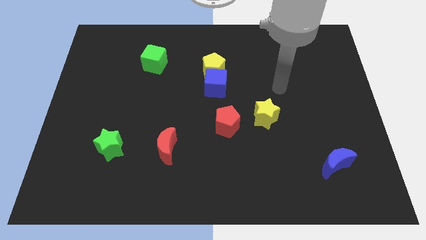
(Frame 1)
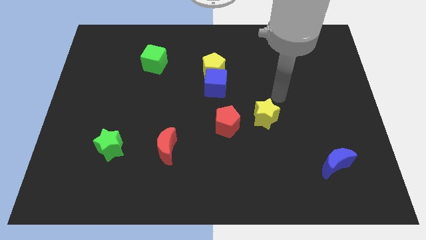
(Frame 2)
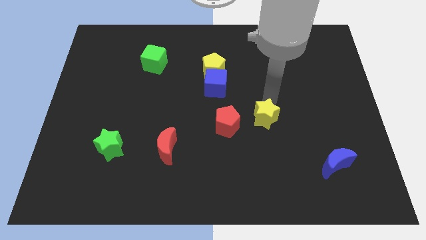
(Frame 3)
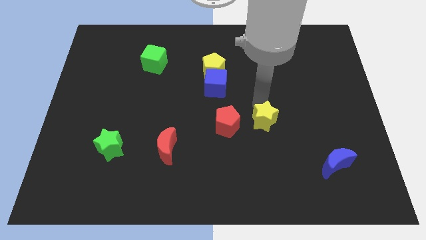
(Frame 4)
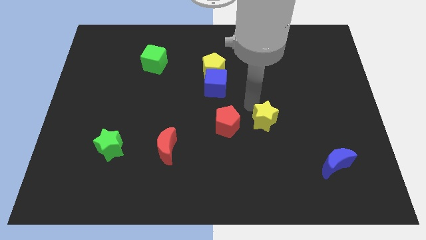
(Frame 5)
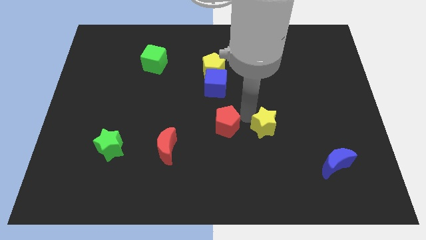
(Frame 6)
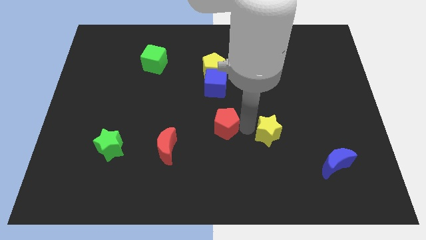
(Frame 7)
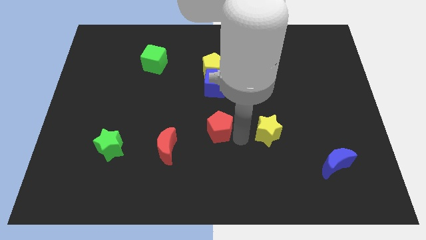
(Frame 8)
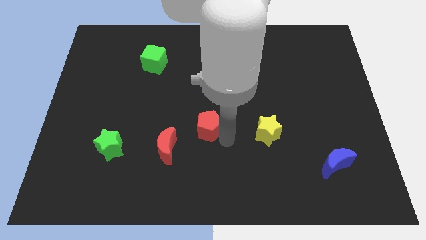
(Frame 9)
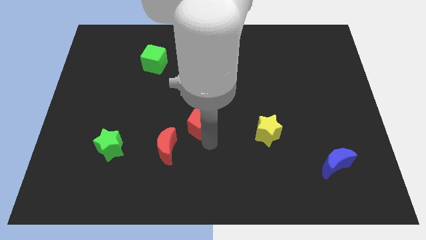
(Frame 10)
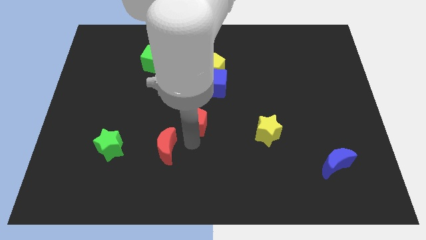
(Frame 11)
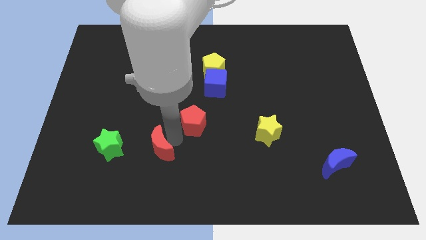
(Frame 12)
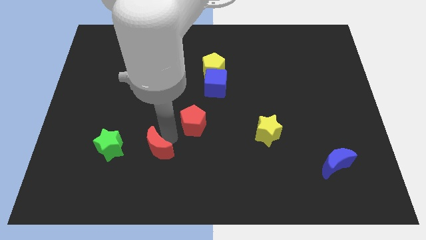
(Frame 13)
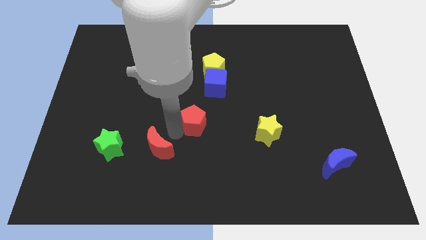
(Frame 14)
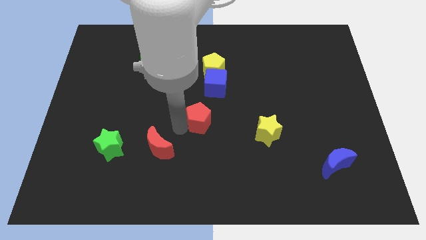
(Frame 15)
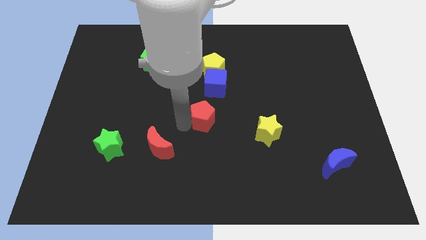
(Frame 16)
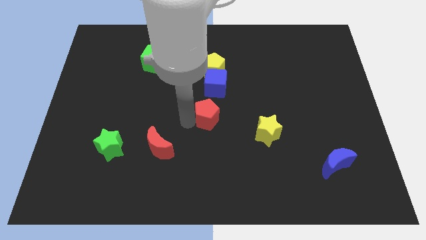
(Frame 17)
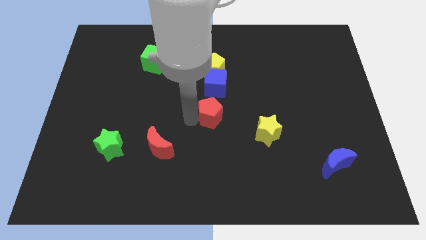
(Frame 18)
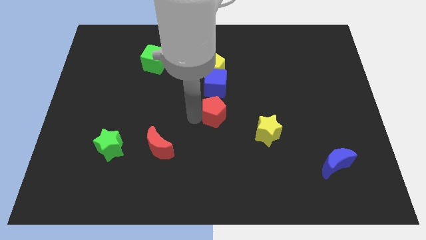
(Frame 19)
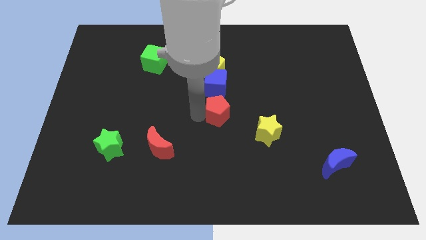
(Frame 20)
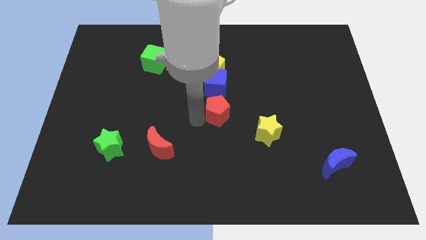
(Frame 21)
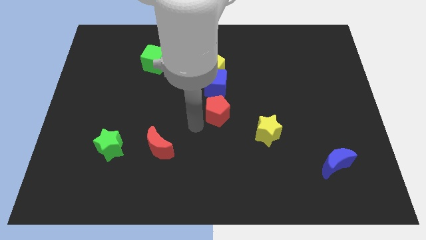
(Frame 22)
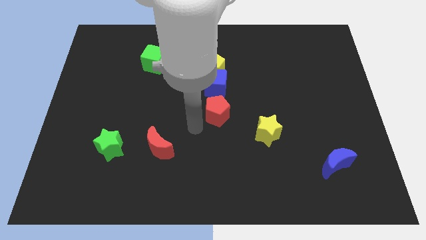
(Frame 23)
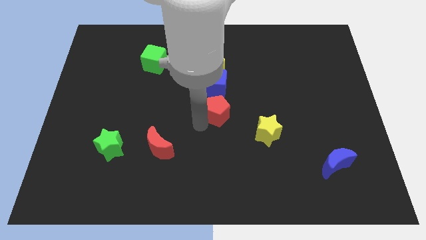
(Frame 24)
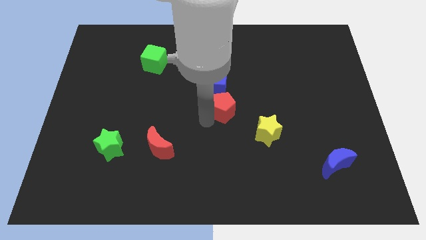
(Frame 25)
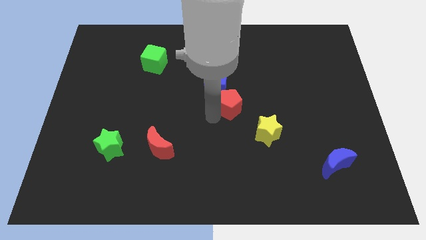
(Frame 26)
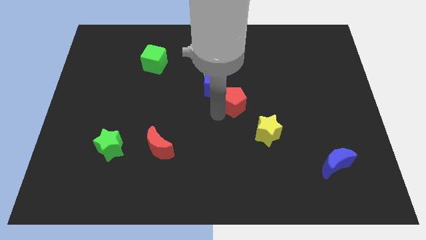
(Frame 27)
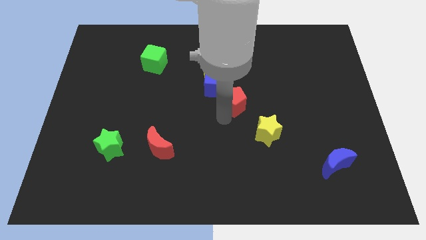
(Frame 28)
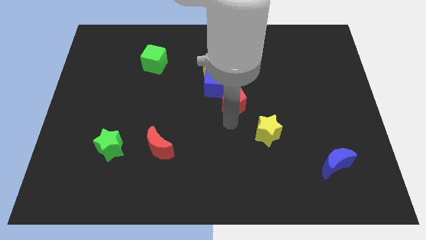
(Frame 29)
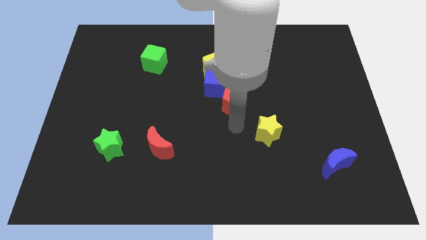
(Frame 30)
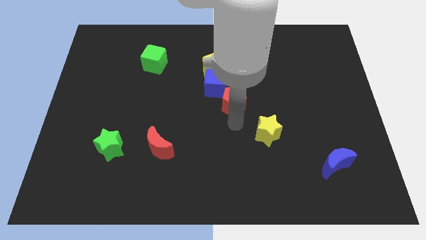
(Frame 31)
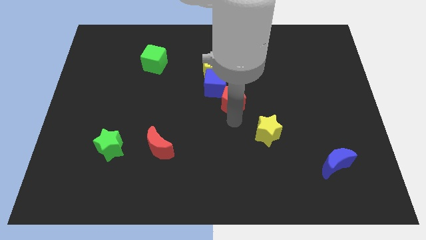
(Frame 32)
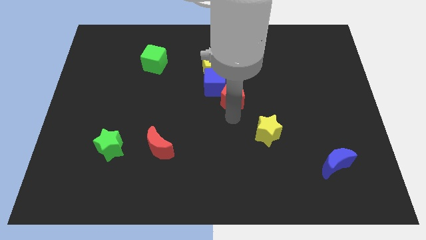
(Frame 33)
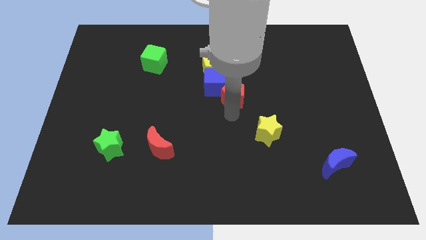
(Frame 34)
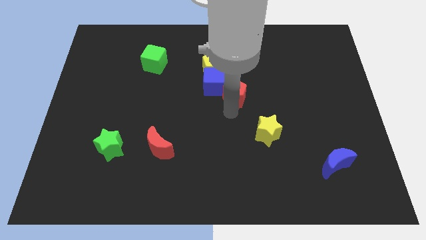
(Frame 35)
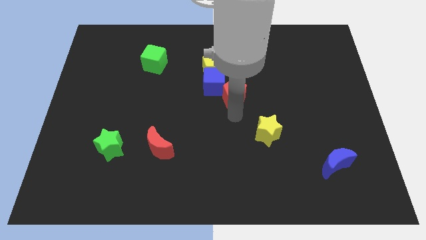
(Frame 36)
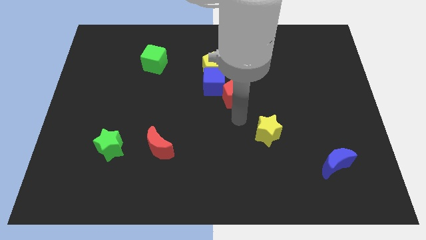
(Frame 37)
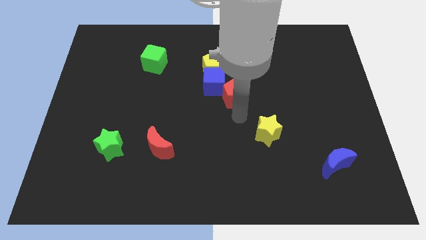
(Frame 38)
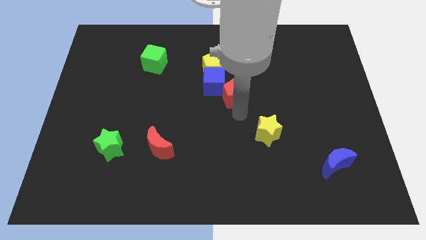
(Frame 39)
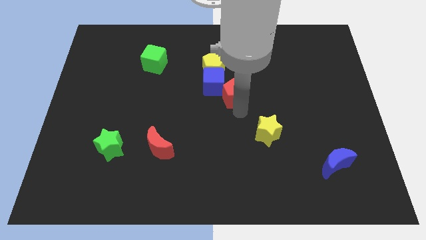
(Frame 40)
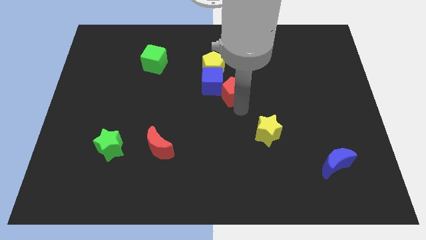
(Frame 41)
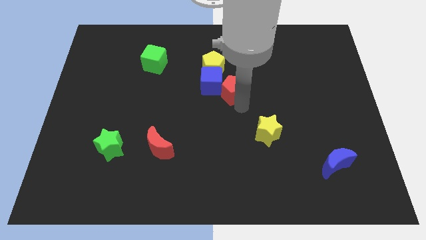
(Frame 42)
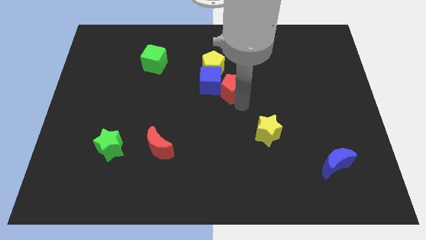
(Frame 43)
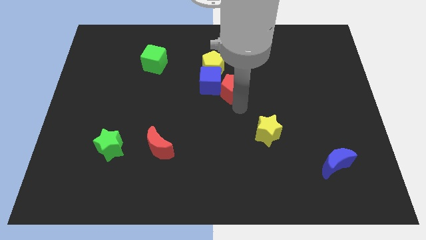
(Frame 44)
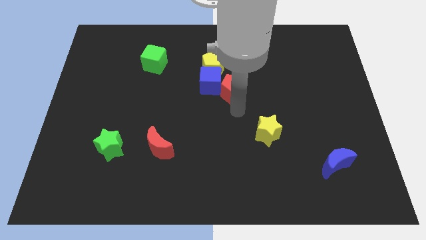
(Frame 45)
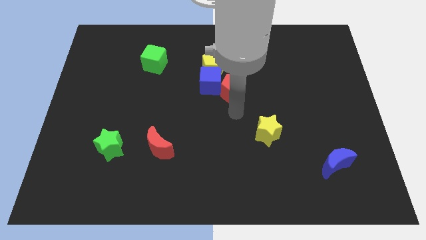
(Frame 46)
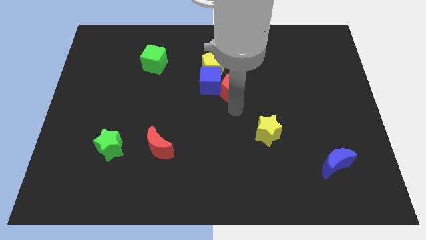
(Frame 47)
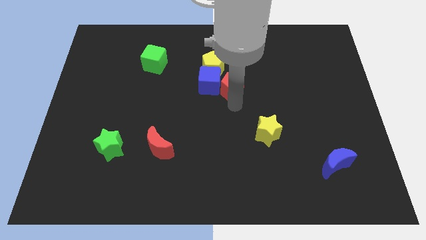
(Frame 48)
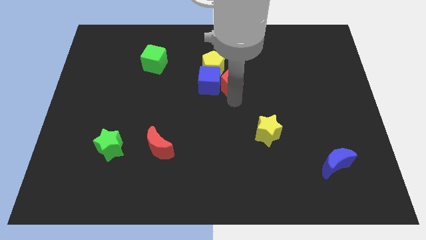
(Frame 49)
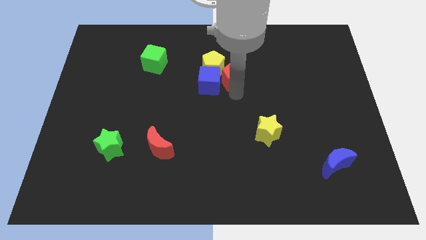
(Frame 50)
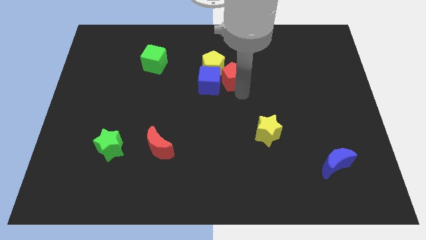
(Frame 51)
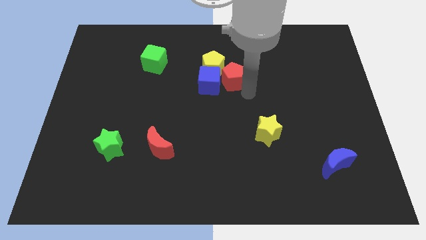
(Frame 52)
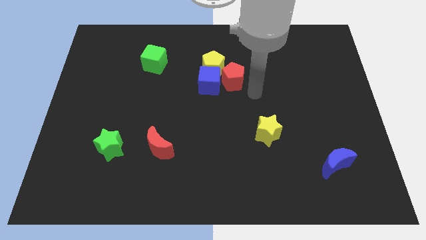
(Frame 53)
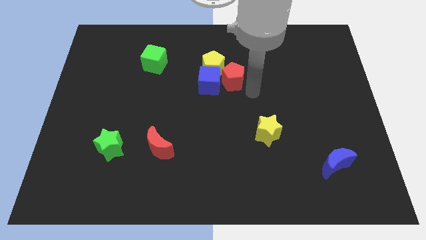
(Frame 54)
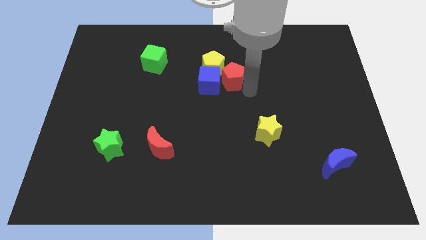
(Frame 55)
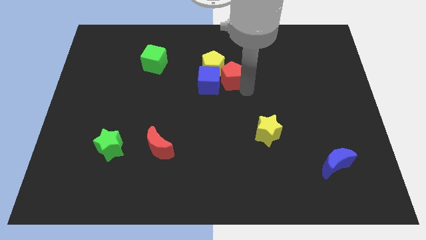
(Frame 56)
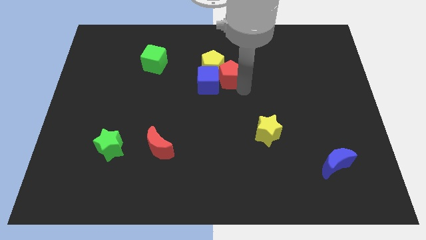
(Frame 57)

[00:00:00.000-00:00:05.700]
move the red pentagon towards the yellow pentagon

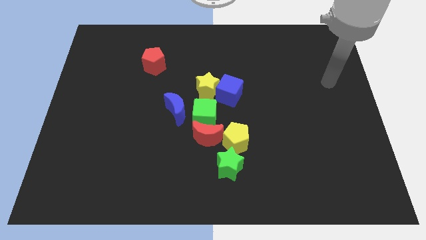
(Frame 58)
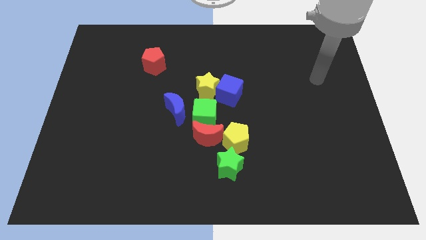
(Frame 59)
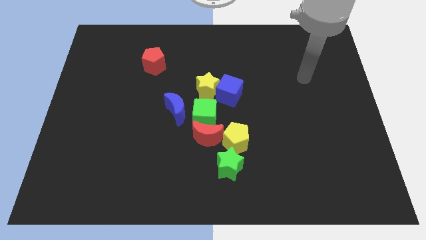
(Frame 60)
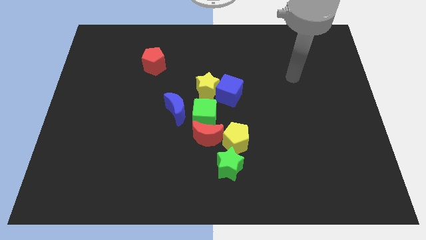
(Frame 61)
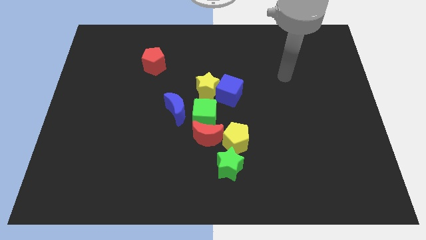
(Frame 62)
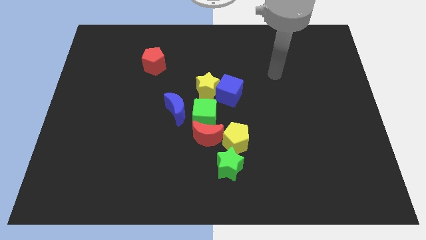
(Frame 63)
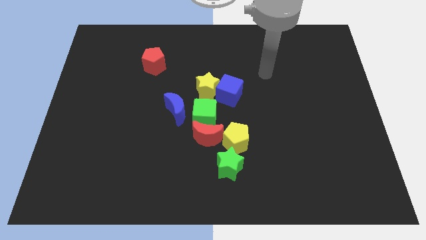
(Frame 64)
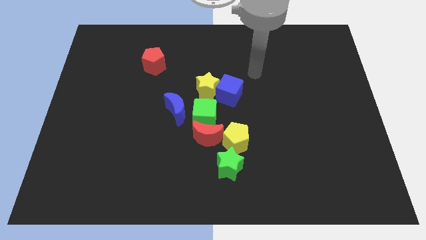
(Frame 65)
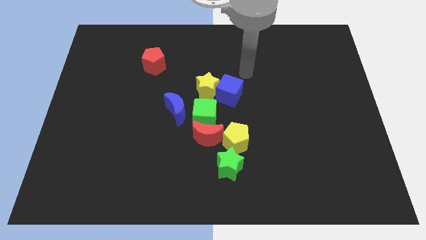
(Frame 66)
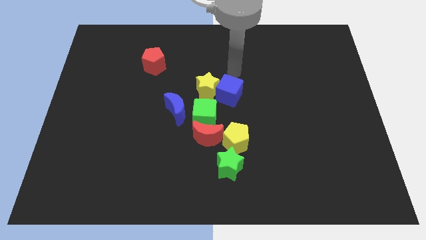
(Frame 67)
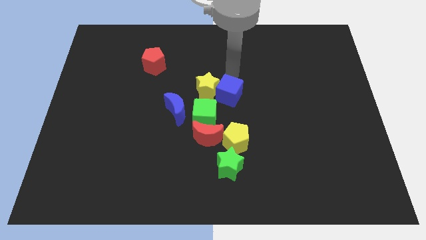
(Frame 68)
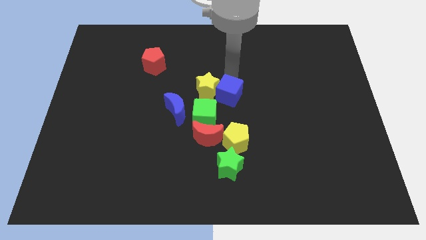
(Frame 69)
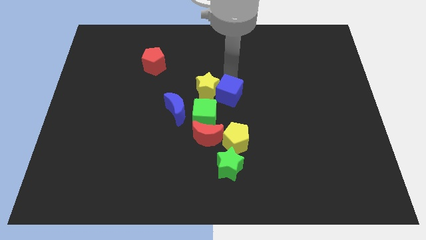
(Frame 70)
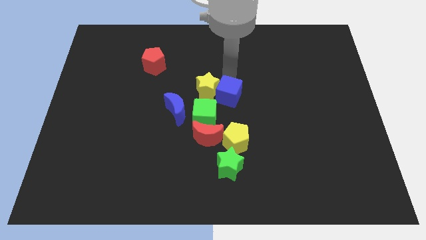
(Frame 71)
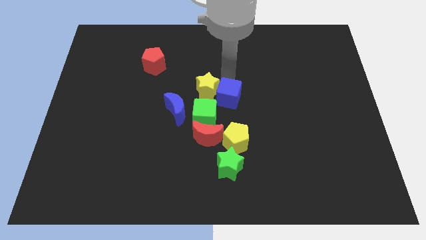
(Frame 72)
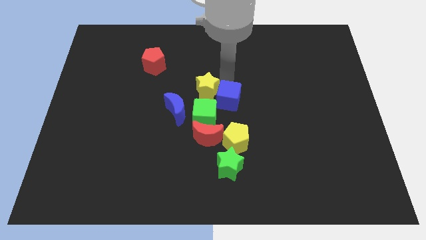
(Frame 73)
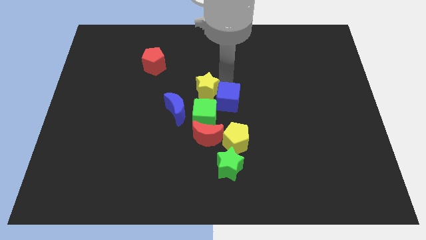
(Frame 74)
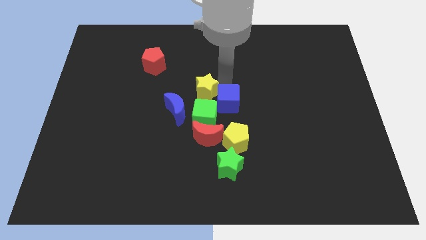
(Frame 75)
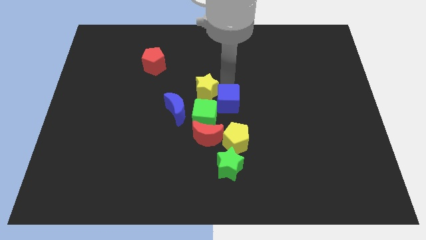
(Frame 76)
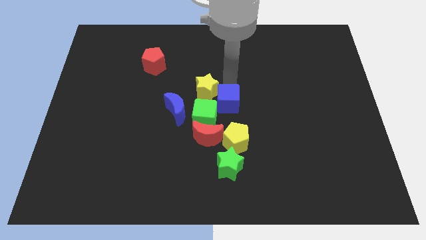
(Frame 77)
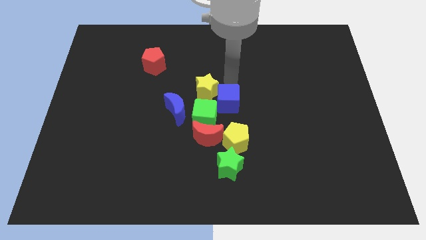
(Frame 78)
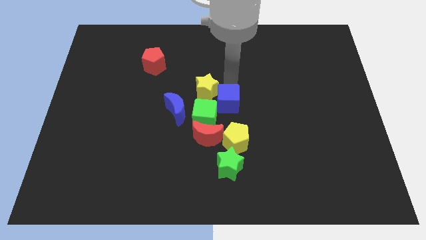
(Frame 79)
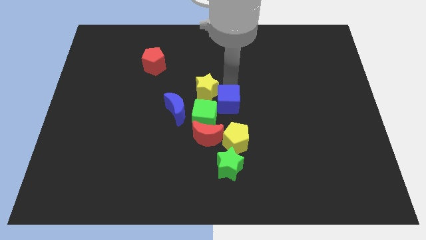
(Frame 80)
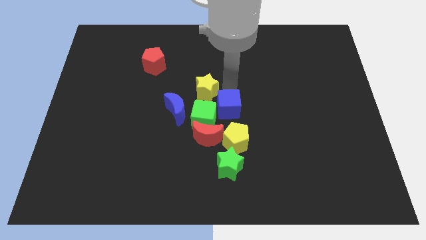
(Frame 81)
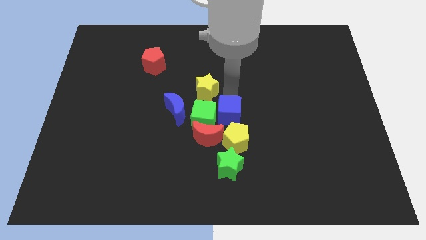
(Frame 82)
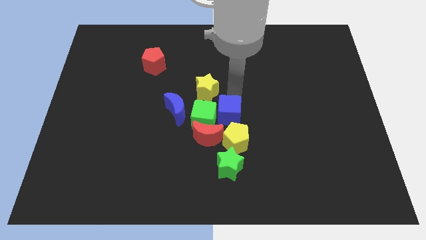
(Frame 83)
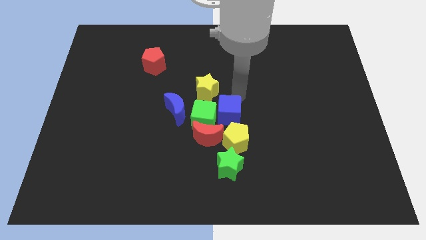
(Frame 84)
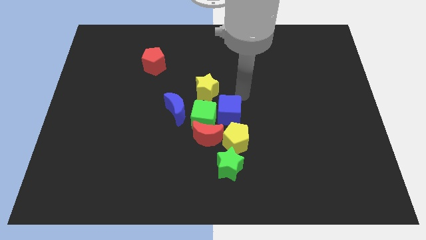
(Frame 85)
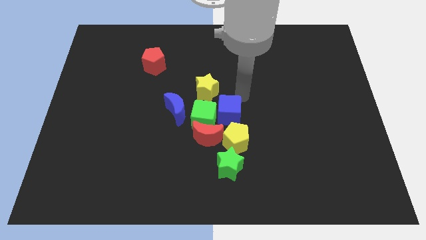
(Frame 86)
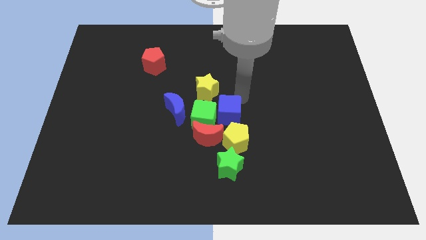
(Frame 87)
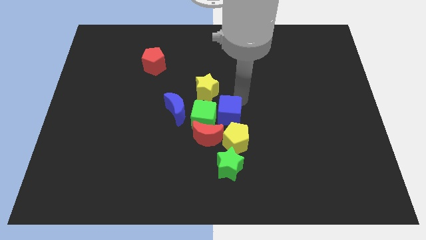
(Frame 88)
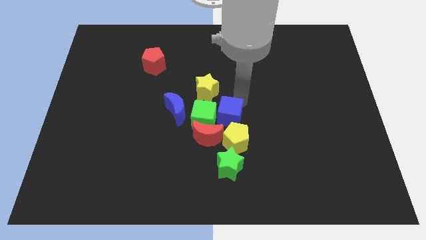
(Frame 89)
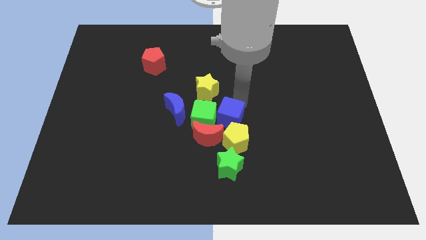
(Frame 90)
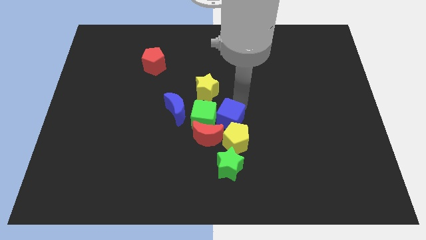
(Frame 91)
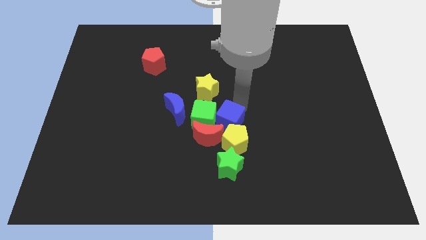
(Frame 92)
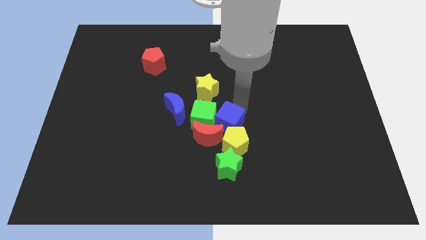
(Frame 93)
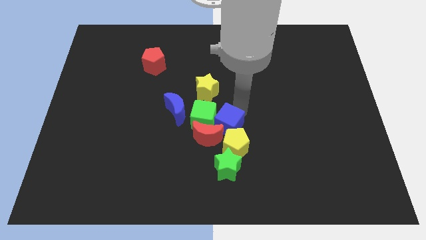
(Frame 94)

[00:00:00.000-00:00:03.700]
slide the blue cube towards the red moon
